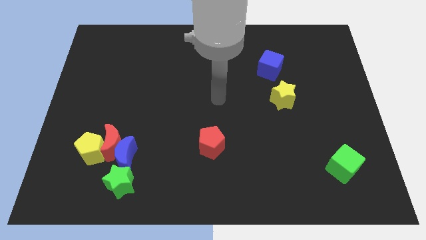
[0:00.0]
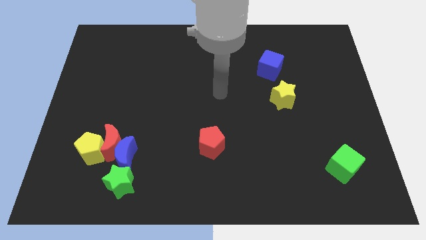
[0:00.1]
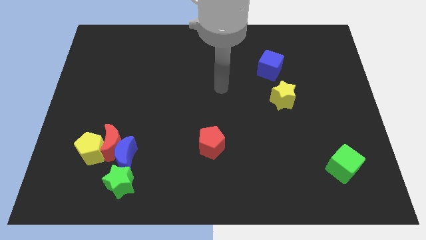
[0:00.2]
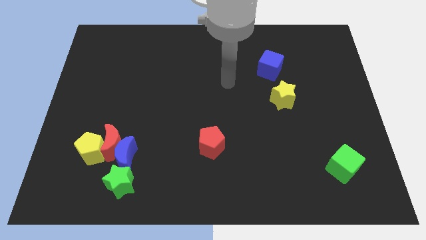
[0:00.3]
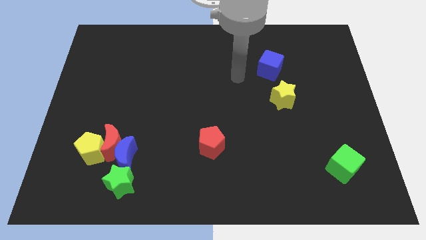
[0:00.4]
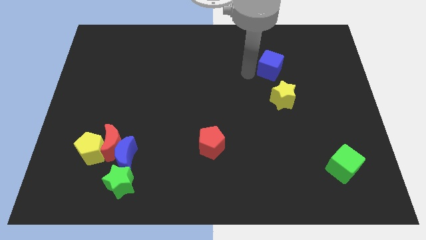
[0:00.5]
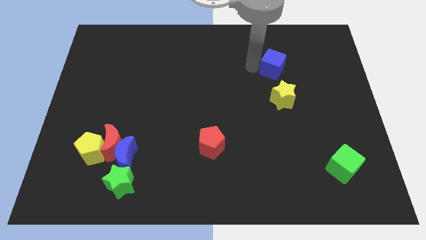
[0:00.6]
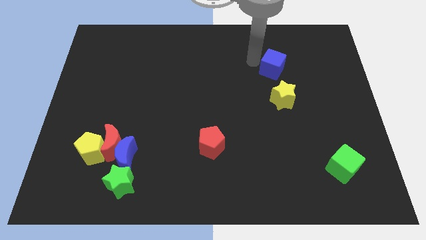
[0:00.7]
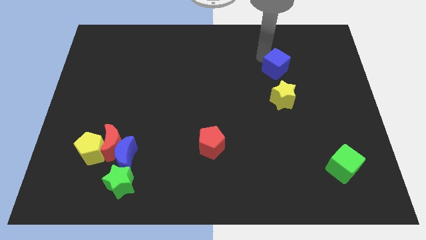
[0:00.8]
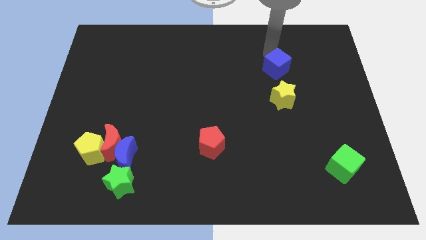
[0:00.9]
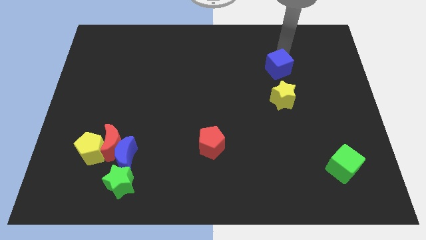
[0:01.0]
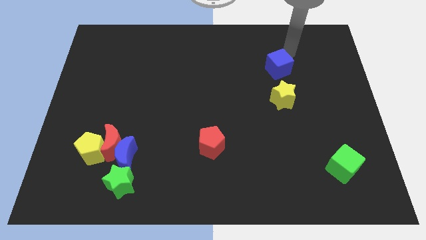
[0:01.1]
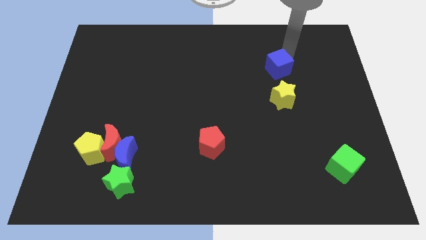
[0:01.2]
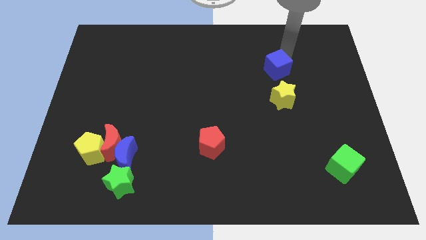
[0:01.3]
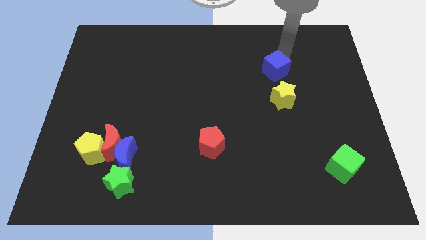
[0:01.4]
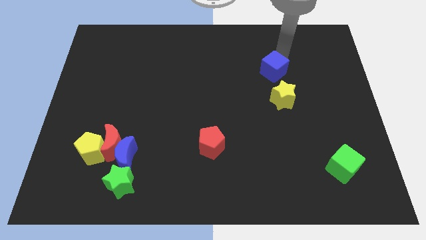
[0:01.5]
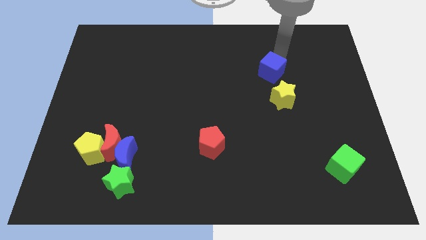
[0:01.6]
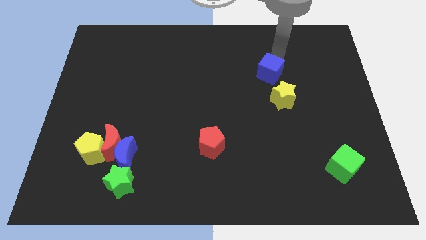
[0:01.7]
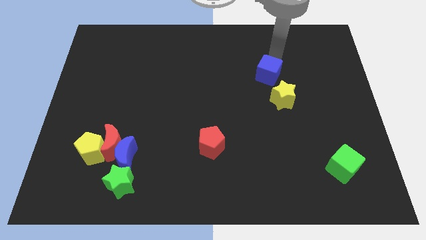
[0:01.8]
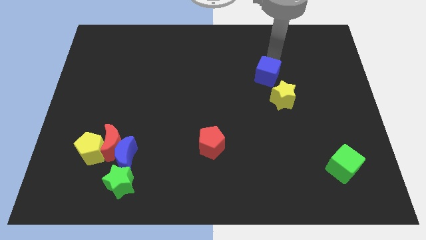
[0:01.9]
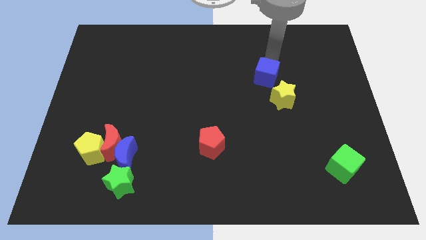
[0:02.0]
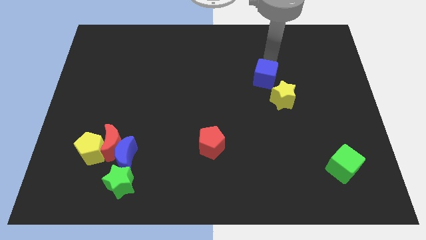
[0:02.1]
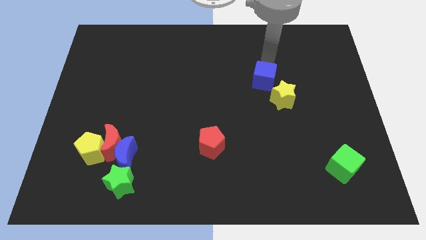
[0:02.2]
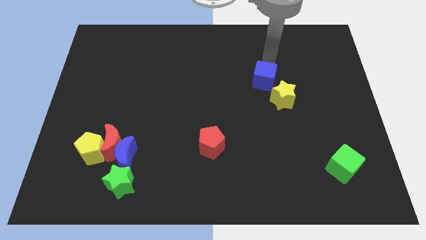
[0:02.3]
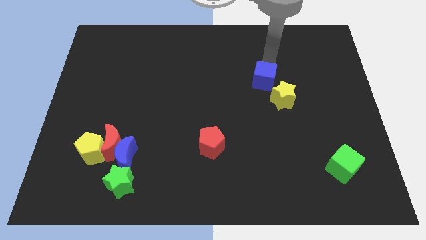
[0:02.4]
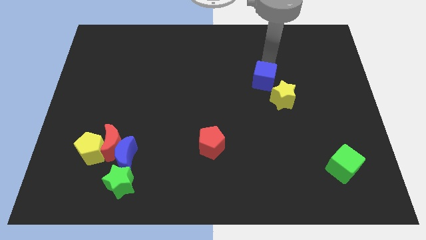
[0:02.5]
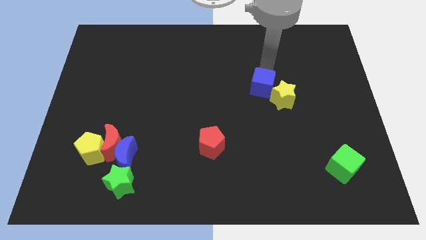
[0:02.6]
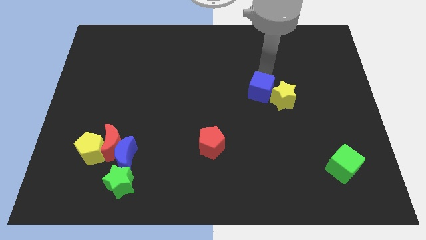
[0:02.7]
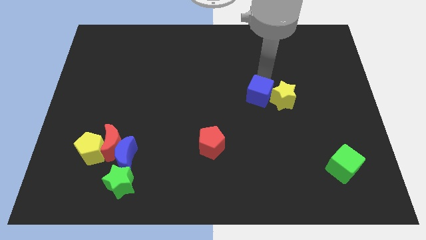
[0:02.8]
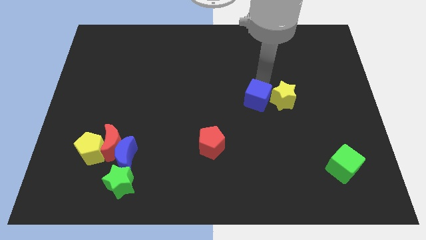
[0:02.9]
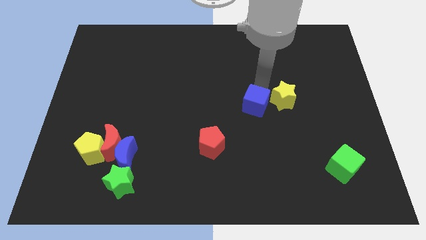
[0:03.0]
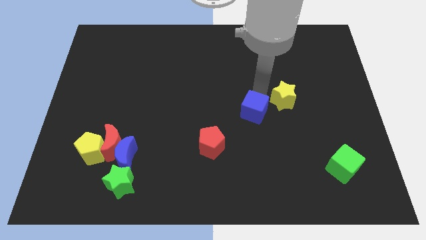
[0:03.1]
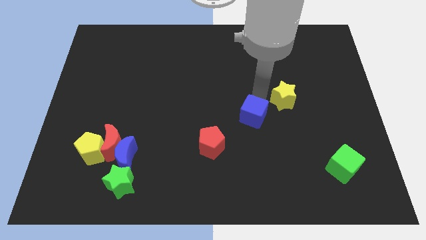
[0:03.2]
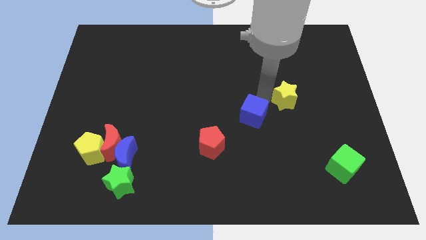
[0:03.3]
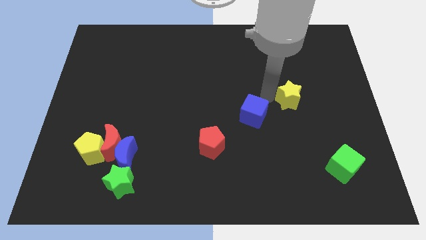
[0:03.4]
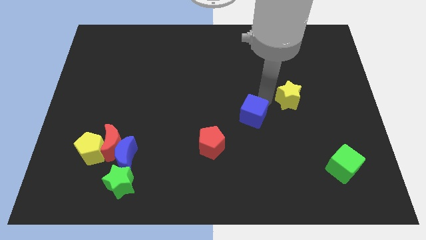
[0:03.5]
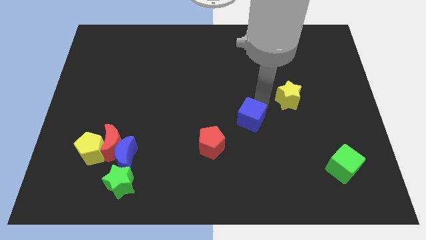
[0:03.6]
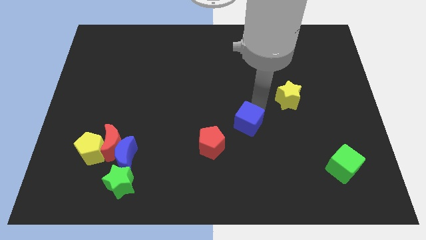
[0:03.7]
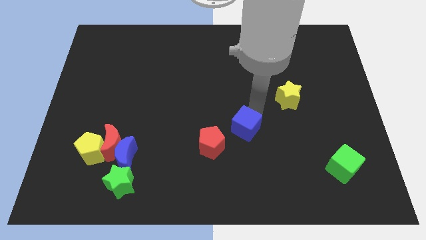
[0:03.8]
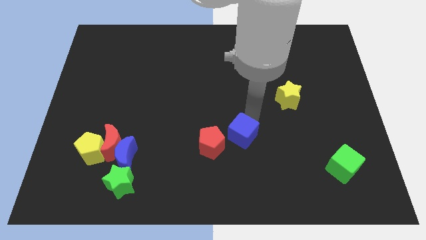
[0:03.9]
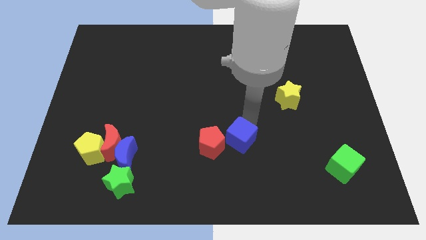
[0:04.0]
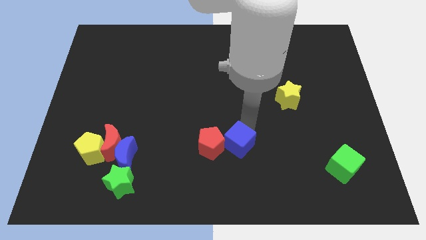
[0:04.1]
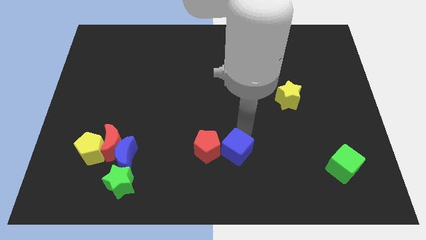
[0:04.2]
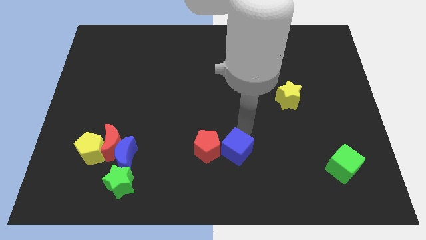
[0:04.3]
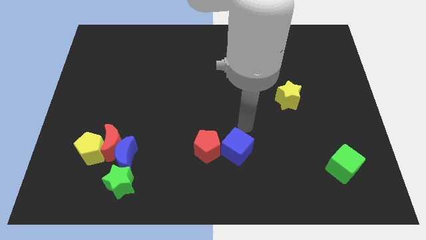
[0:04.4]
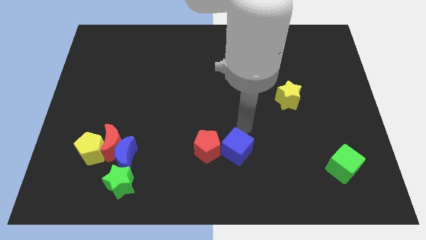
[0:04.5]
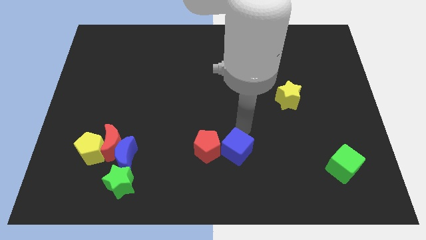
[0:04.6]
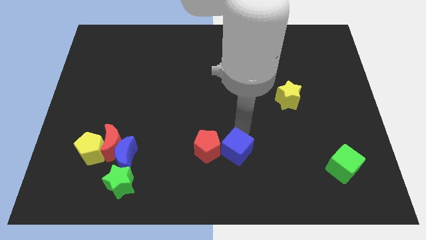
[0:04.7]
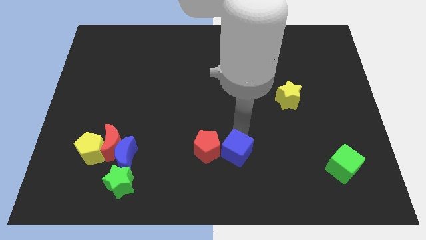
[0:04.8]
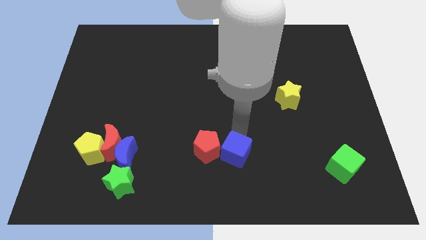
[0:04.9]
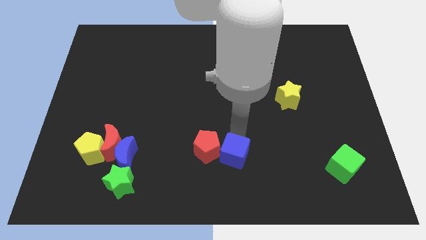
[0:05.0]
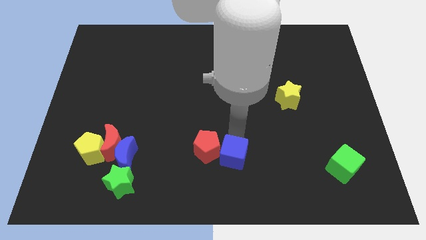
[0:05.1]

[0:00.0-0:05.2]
move the blue cube to the bottom

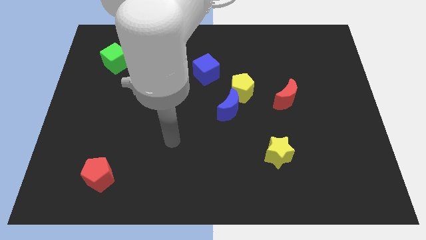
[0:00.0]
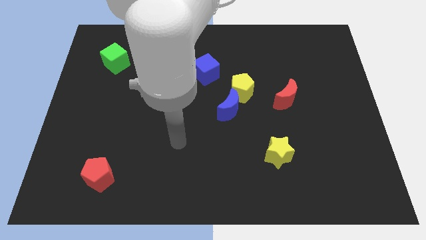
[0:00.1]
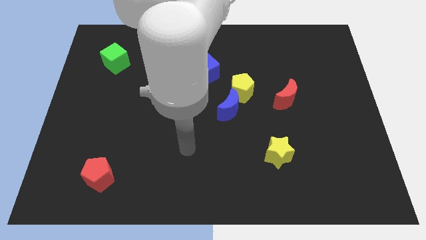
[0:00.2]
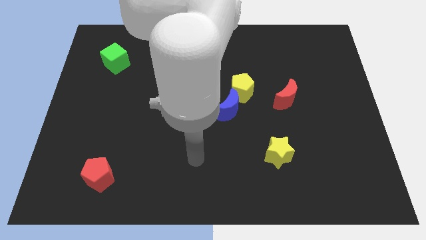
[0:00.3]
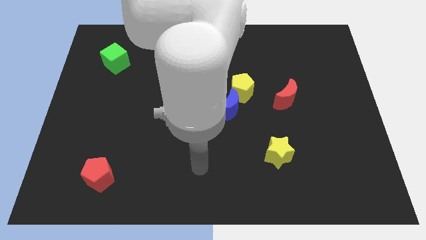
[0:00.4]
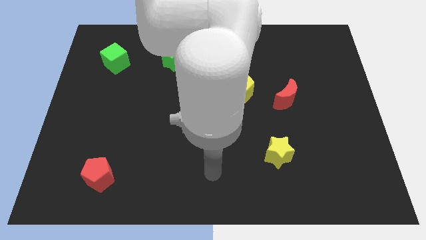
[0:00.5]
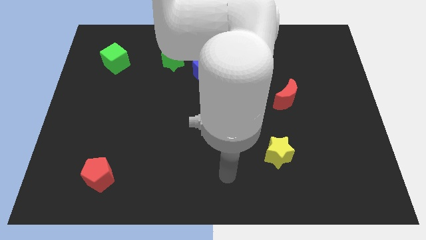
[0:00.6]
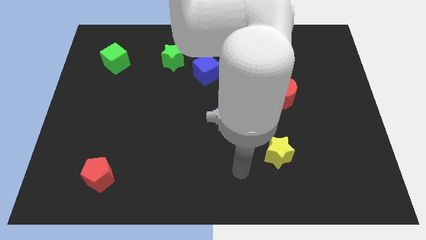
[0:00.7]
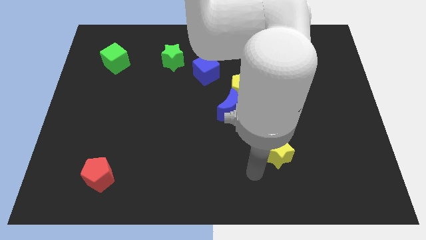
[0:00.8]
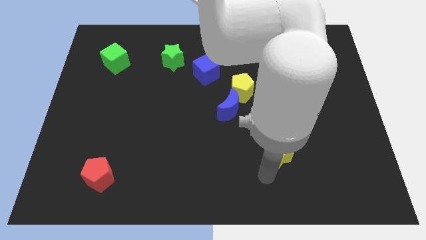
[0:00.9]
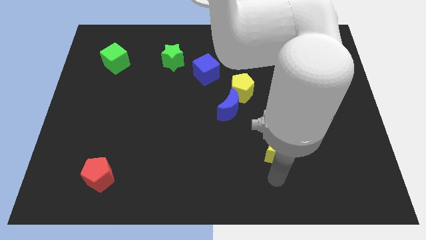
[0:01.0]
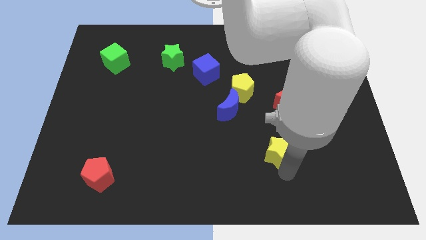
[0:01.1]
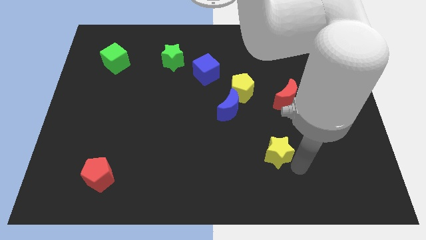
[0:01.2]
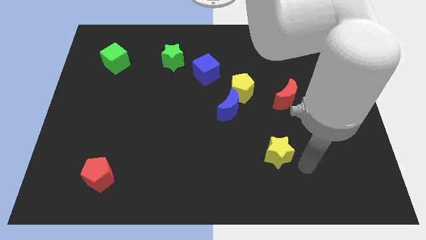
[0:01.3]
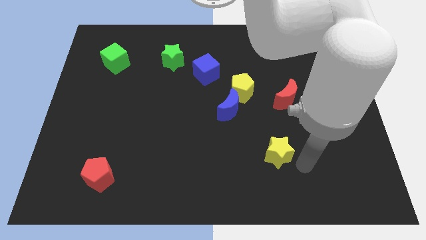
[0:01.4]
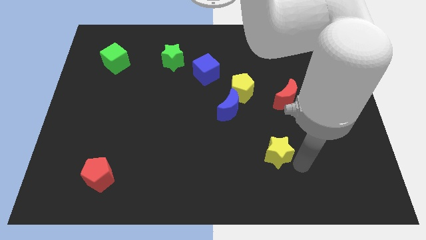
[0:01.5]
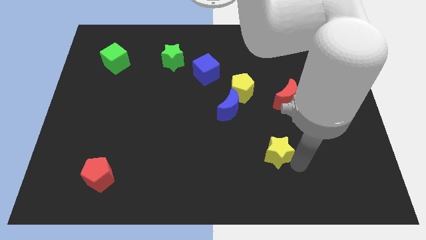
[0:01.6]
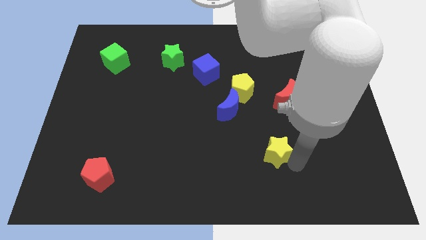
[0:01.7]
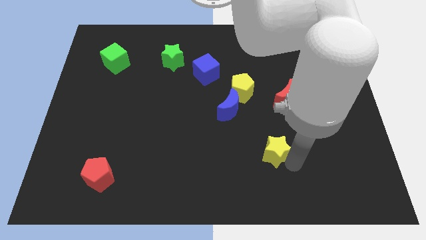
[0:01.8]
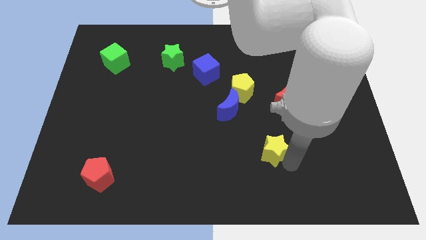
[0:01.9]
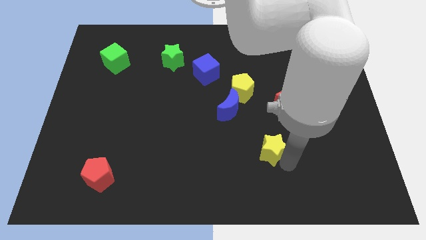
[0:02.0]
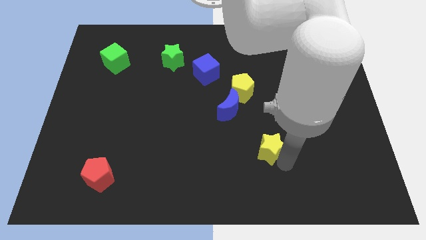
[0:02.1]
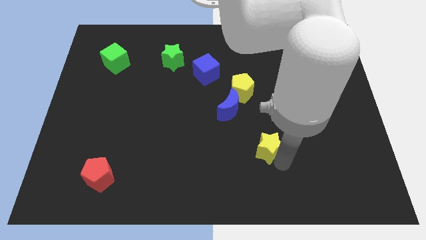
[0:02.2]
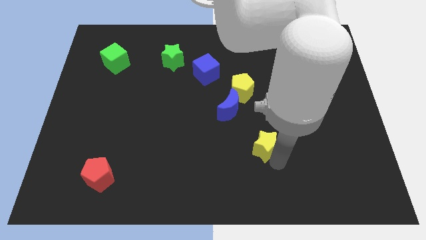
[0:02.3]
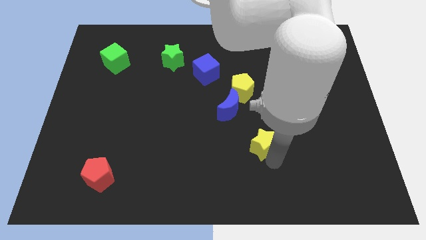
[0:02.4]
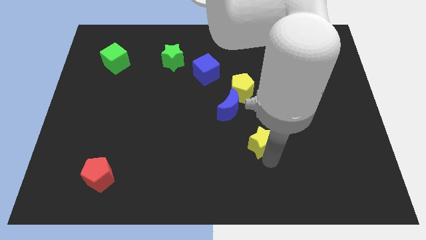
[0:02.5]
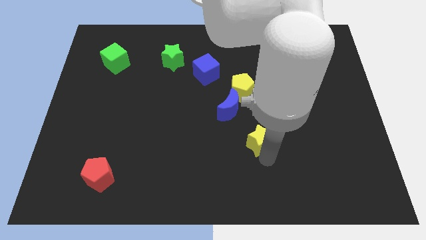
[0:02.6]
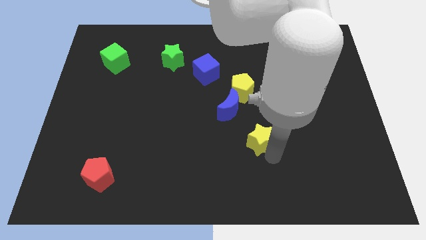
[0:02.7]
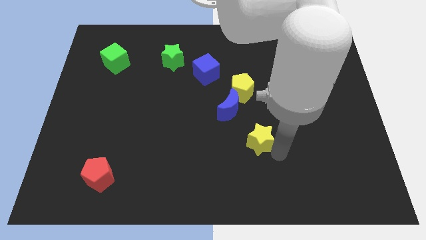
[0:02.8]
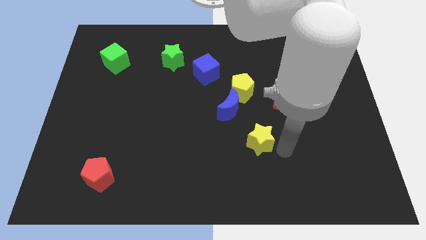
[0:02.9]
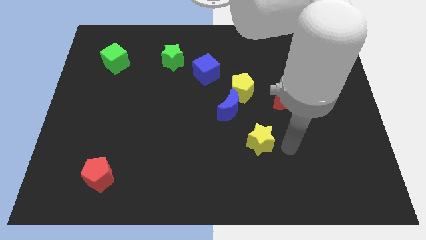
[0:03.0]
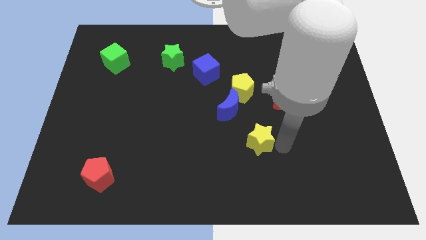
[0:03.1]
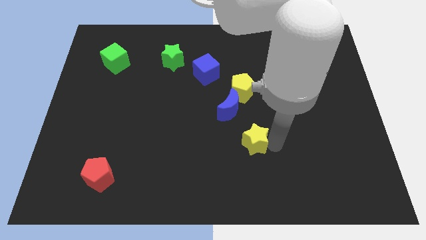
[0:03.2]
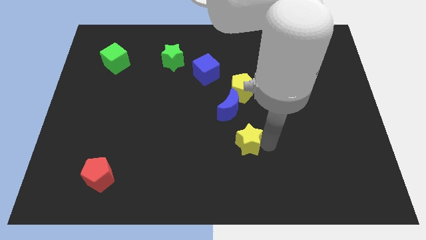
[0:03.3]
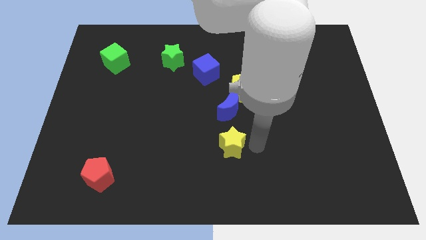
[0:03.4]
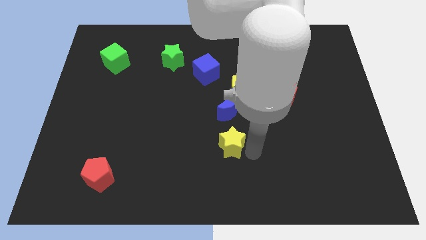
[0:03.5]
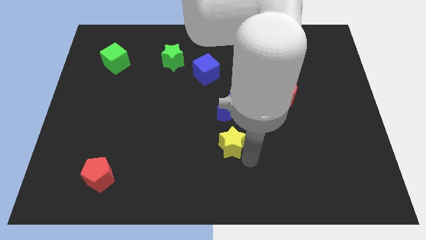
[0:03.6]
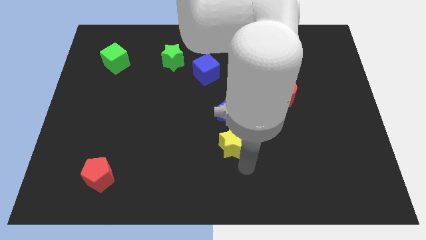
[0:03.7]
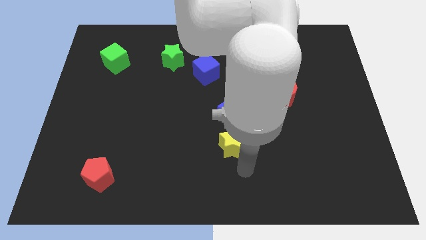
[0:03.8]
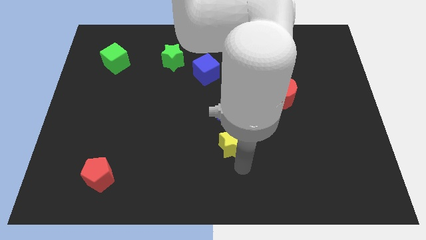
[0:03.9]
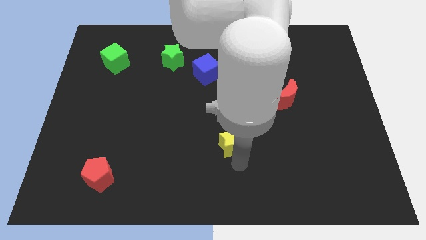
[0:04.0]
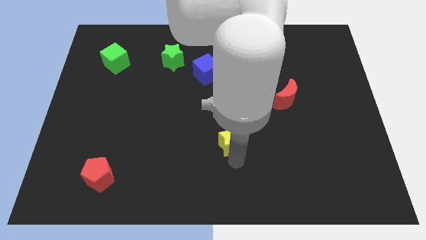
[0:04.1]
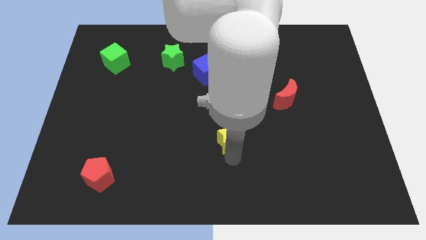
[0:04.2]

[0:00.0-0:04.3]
put the yellow star to the middle of the board
